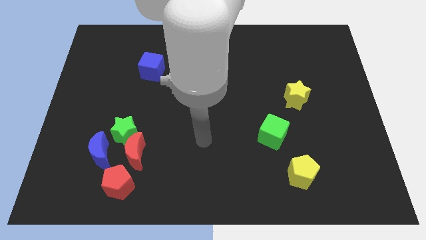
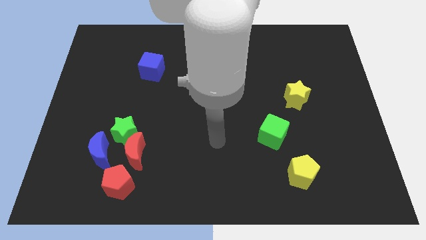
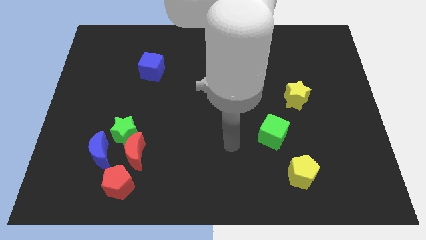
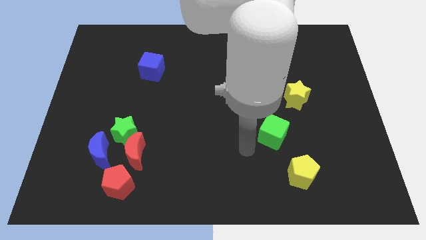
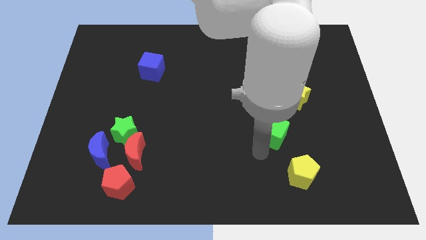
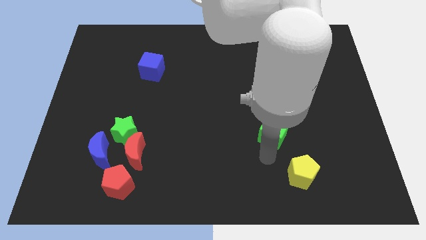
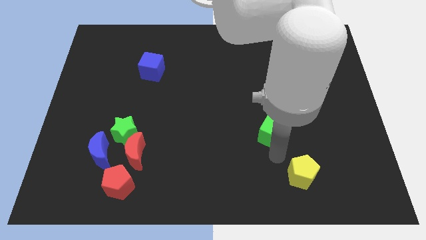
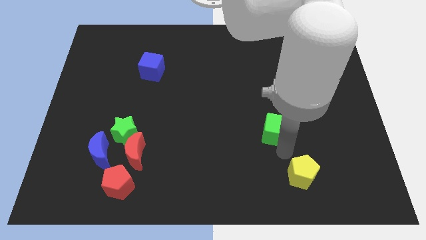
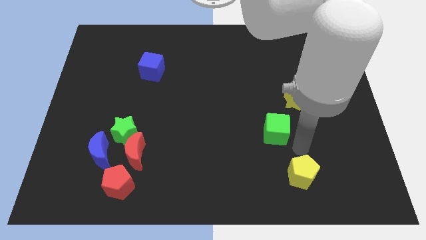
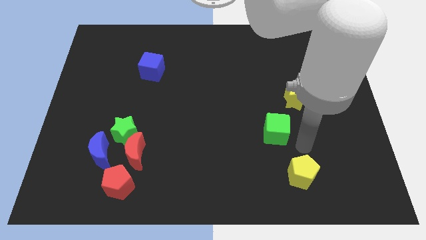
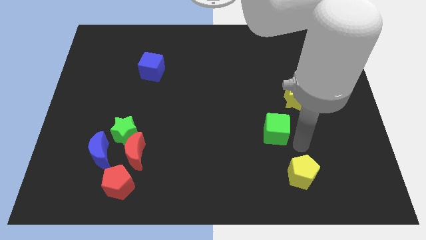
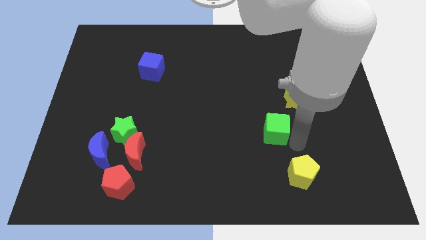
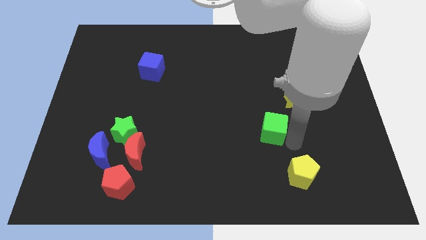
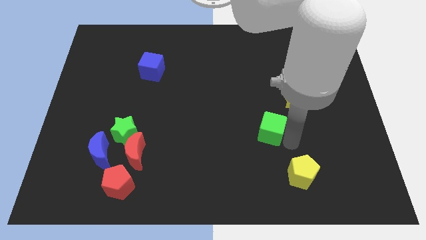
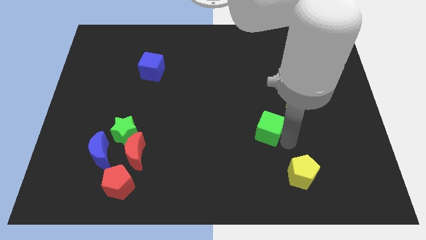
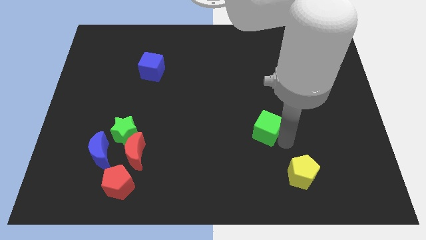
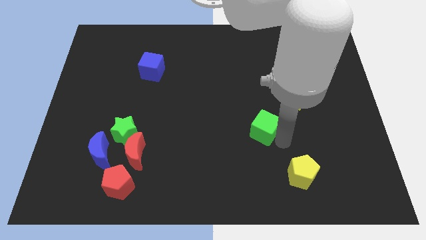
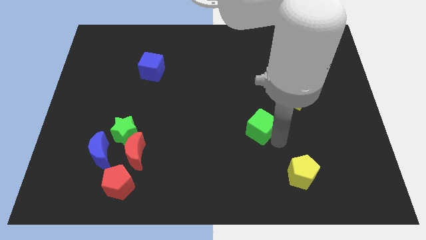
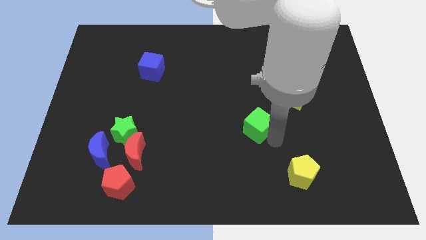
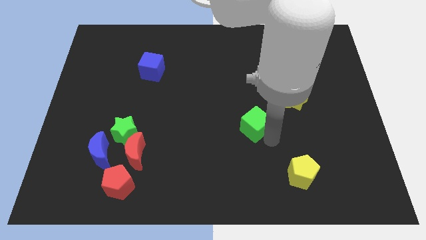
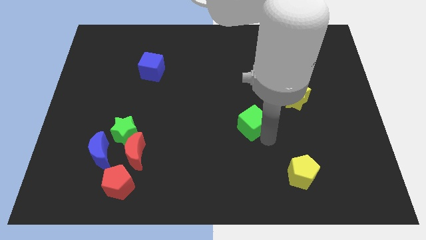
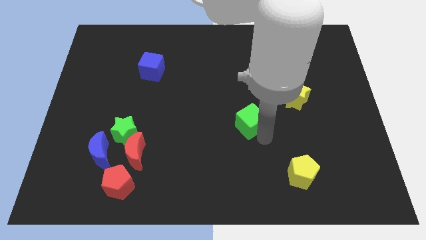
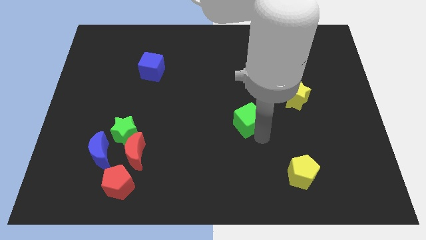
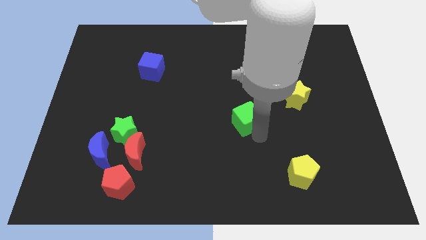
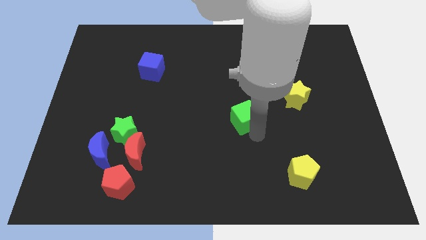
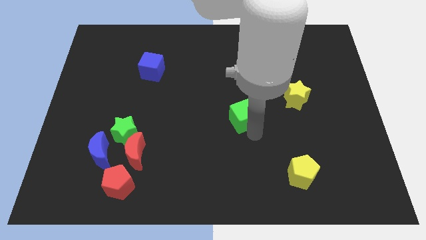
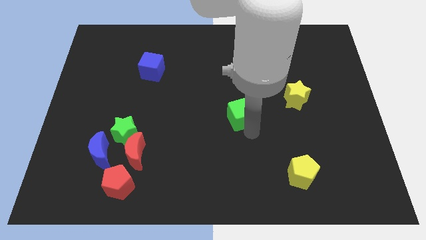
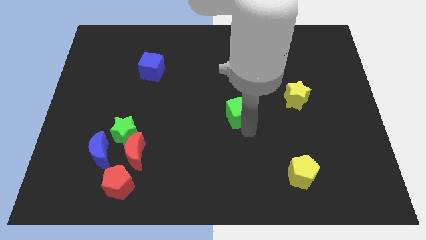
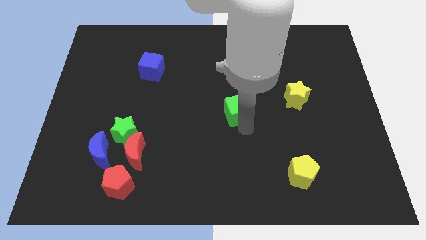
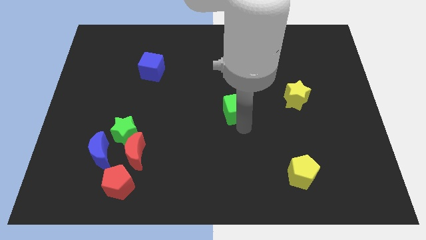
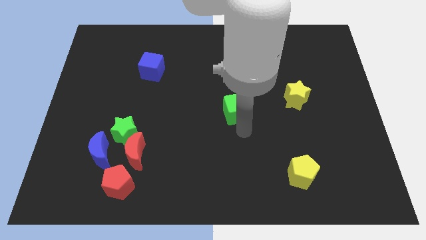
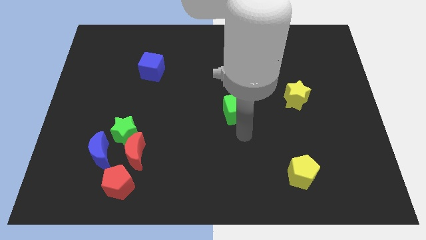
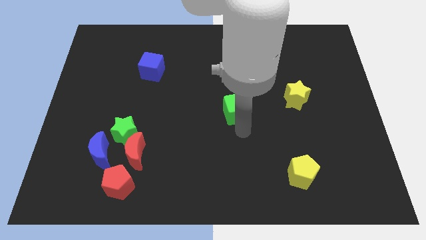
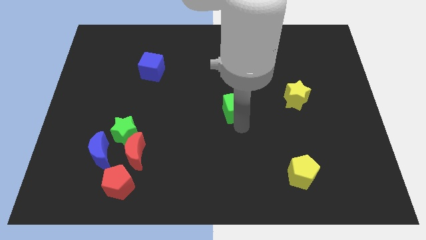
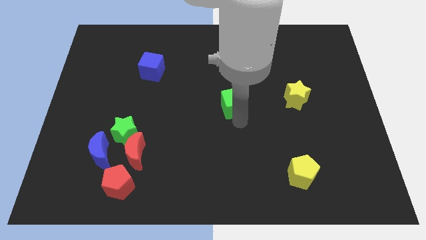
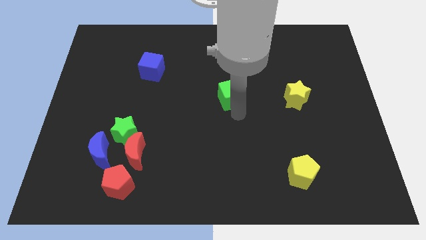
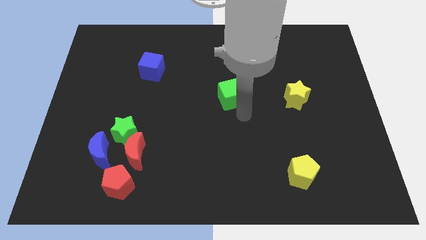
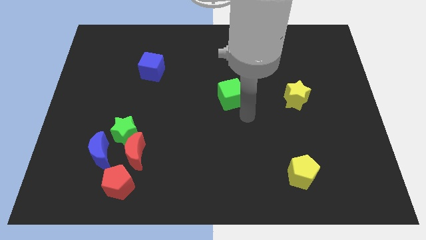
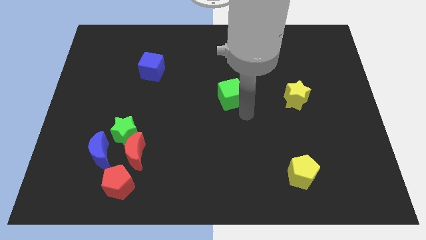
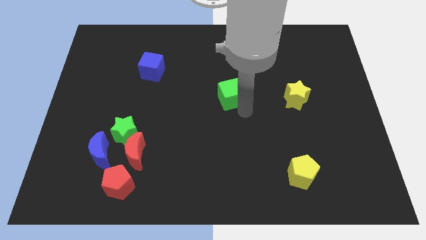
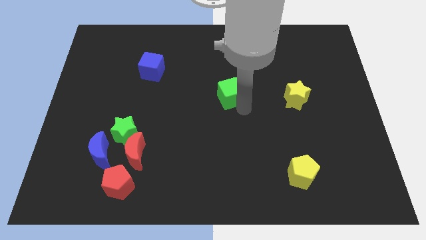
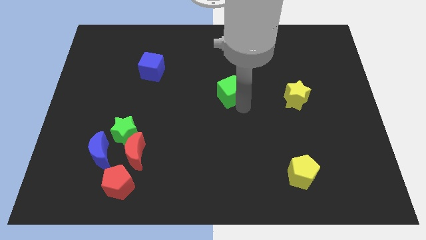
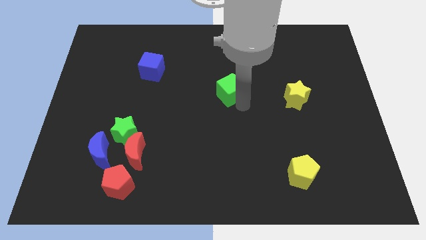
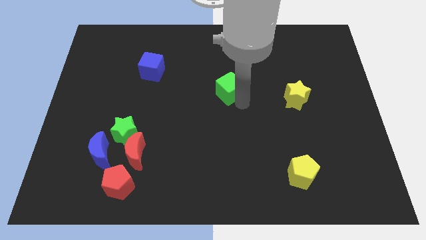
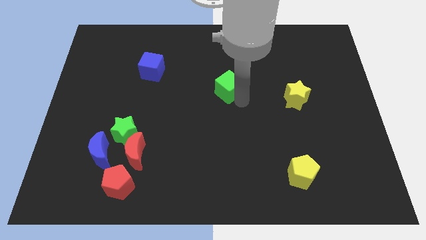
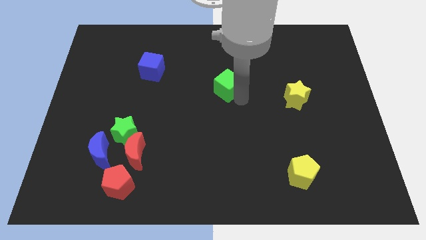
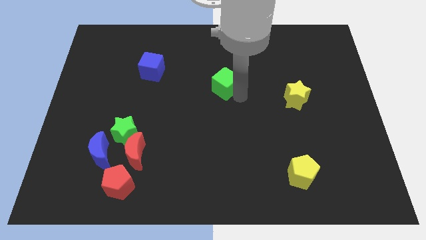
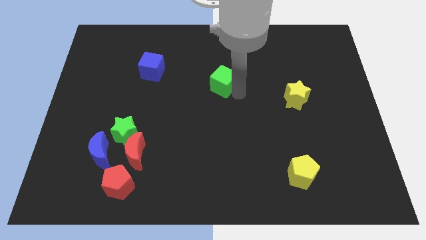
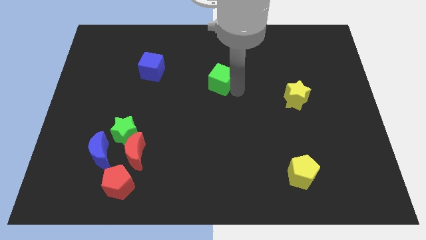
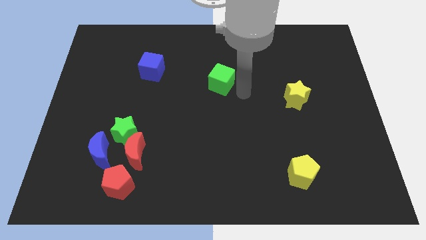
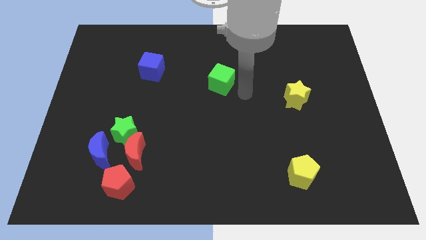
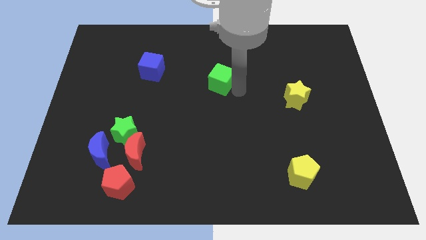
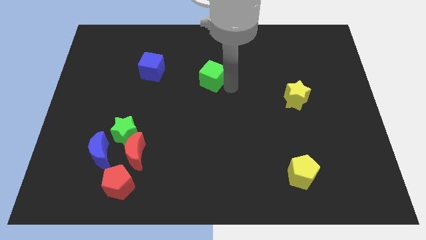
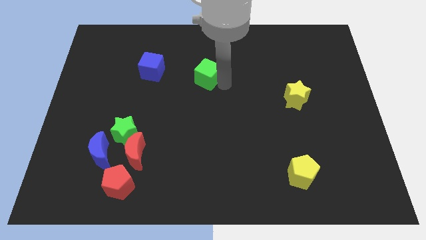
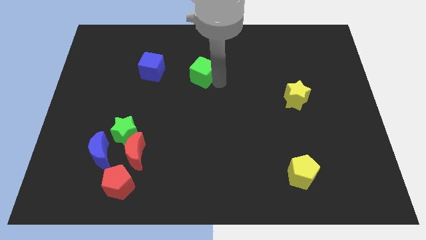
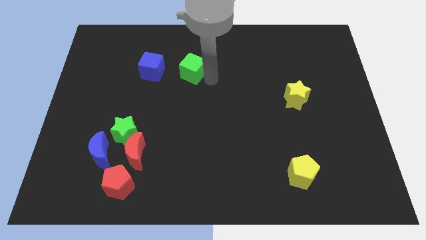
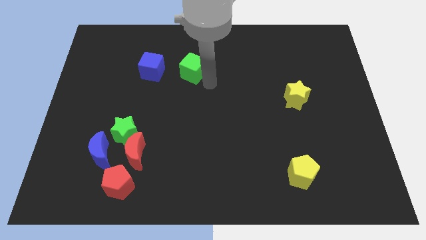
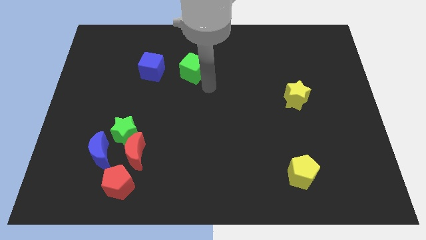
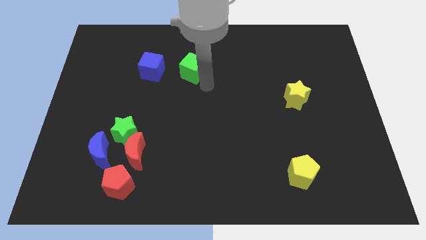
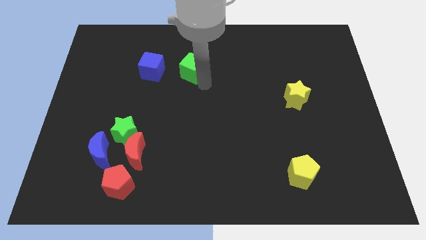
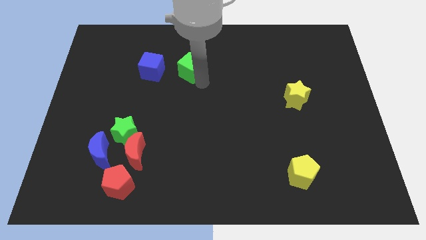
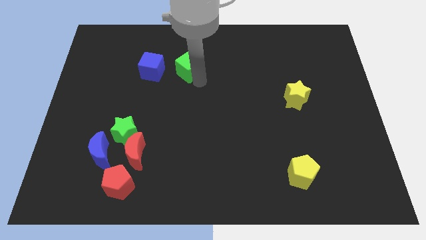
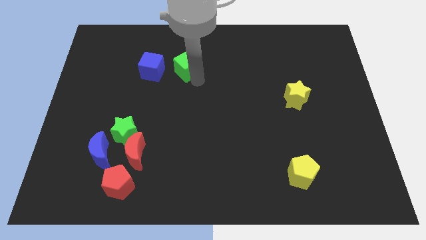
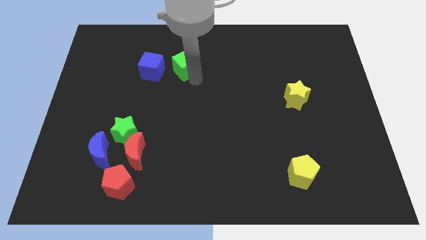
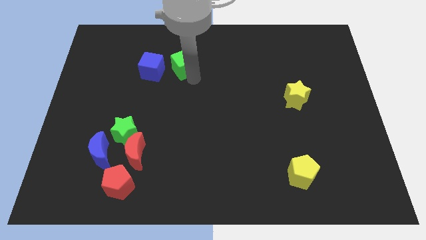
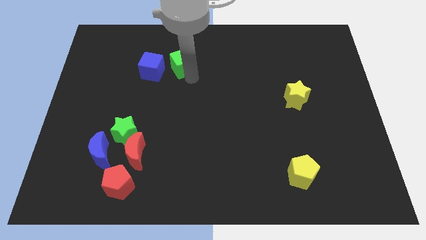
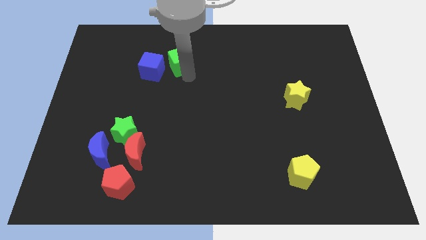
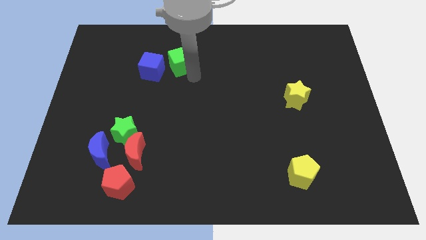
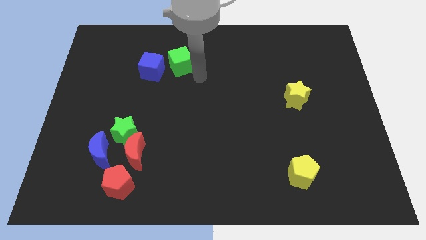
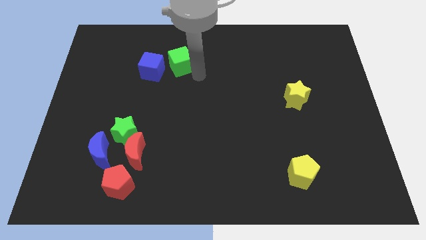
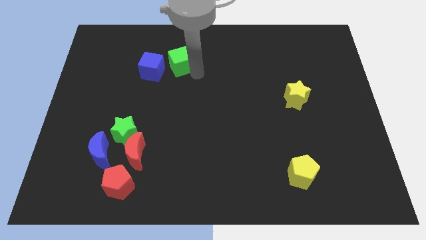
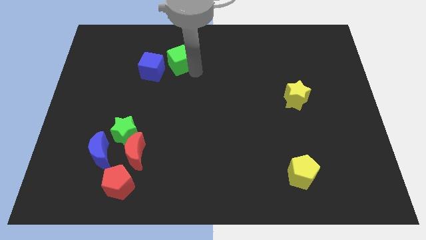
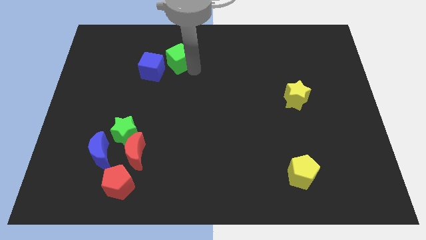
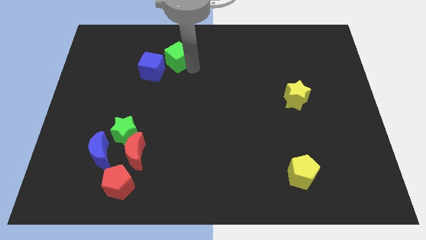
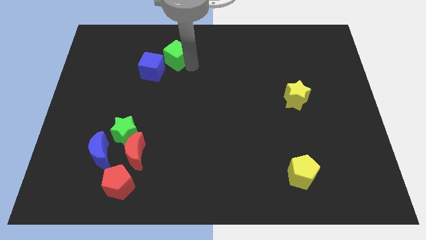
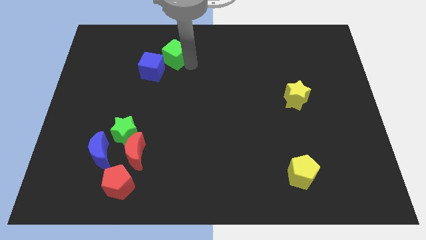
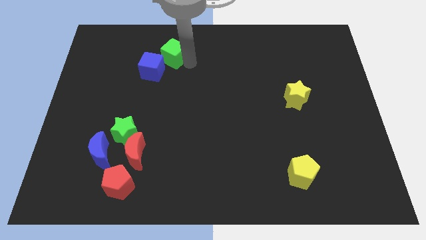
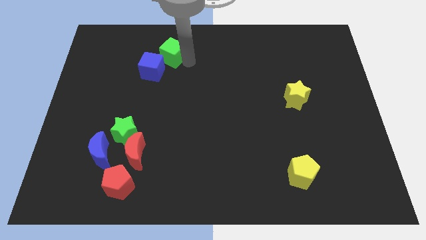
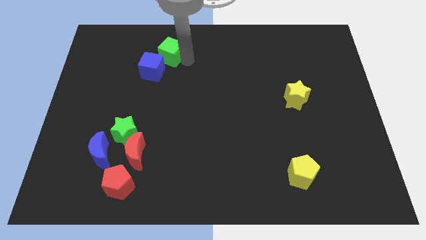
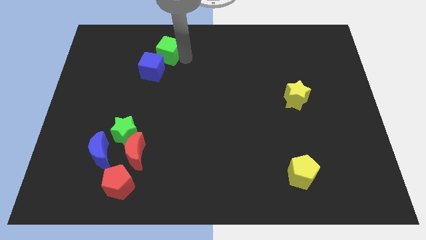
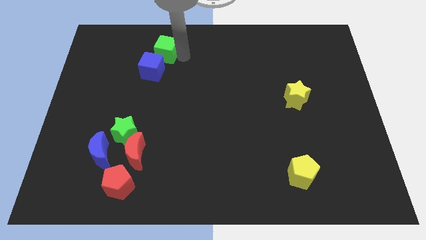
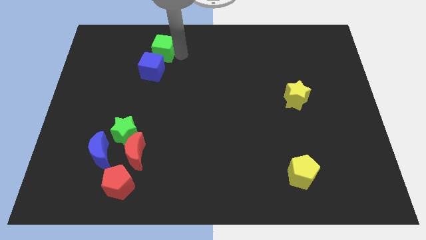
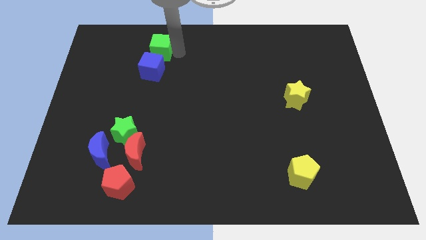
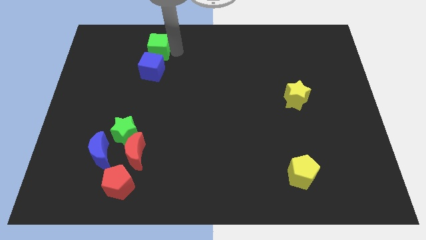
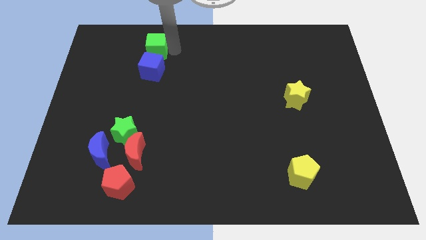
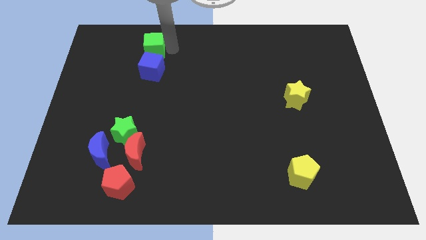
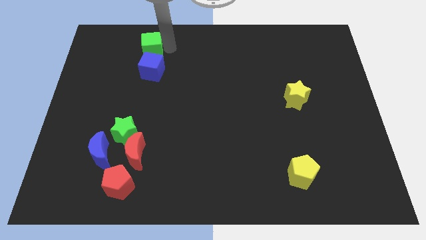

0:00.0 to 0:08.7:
push the green cube to the top left of the blue cube
